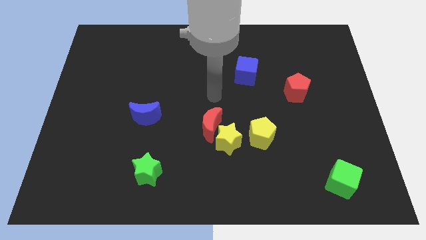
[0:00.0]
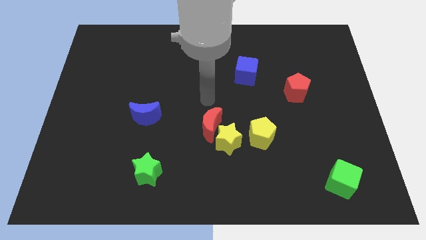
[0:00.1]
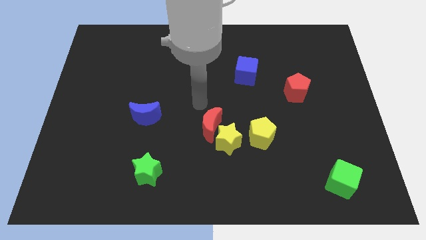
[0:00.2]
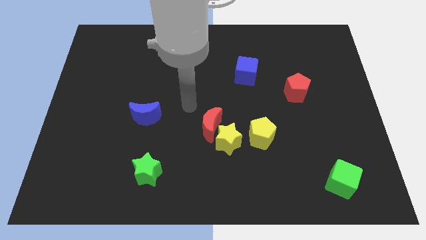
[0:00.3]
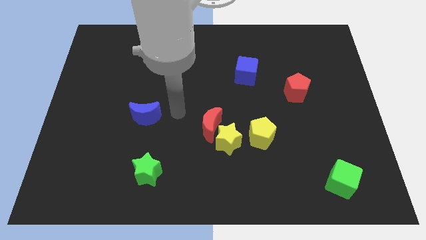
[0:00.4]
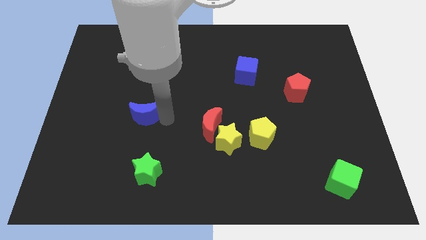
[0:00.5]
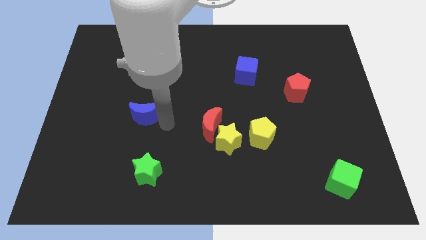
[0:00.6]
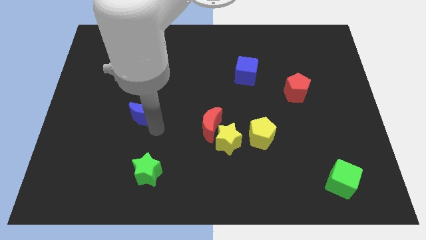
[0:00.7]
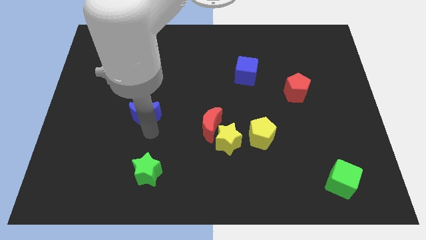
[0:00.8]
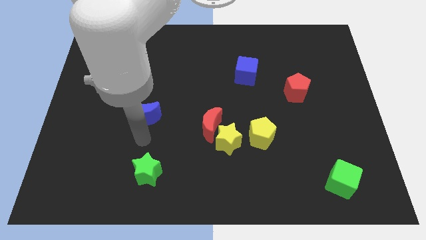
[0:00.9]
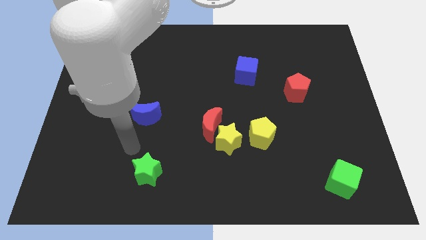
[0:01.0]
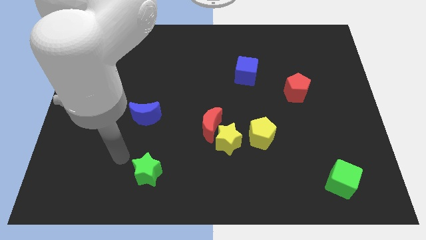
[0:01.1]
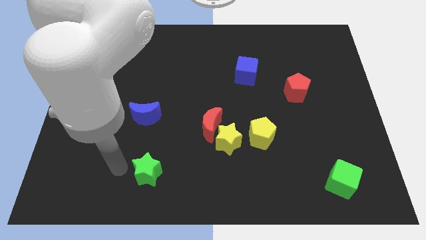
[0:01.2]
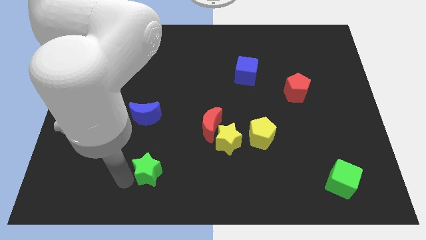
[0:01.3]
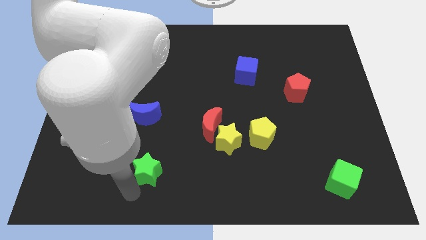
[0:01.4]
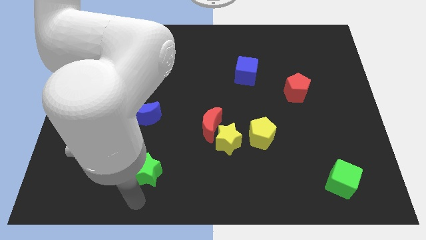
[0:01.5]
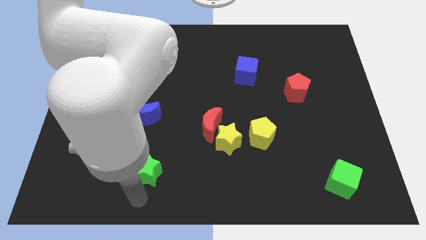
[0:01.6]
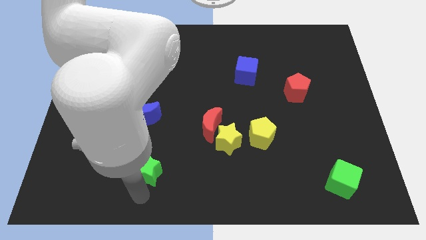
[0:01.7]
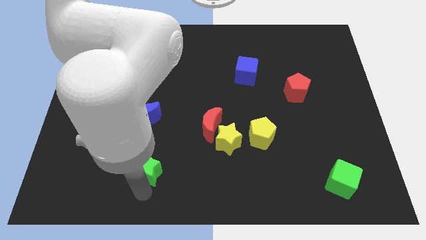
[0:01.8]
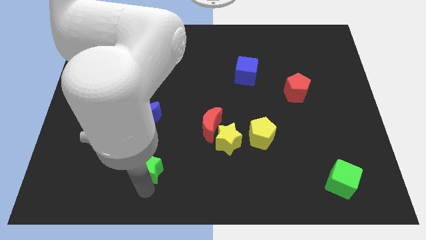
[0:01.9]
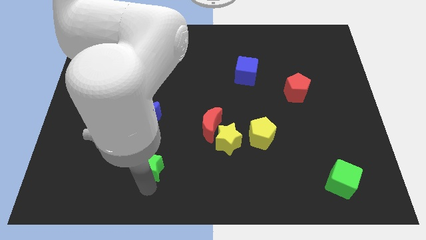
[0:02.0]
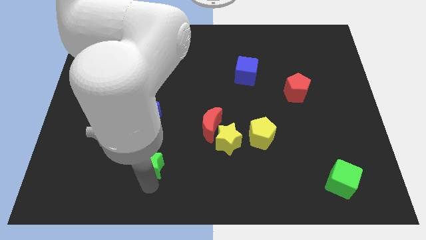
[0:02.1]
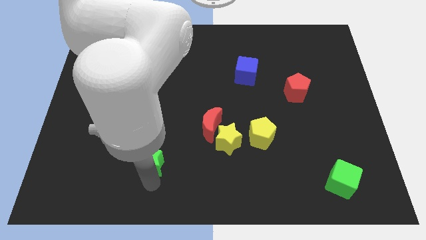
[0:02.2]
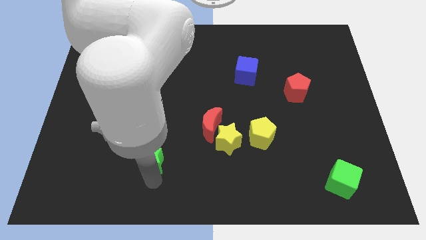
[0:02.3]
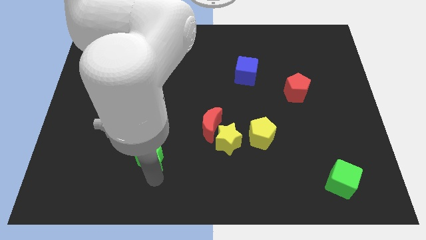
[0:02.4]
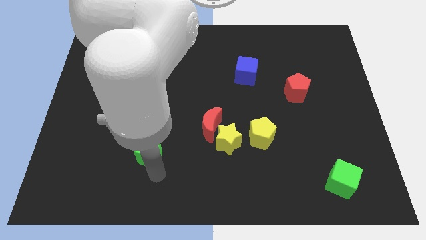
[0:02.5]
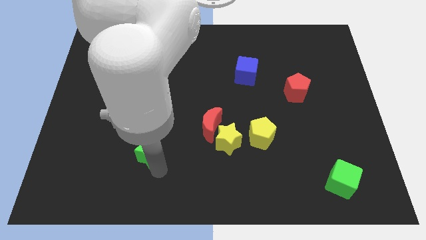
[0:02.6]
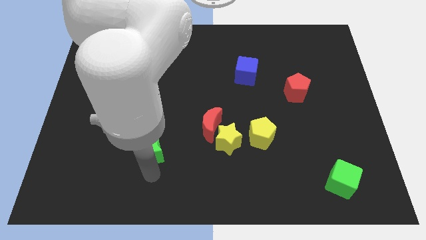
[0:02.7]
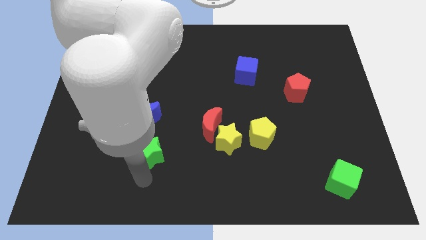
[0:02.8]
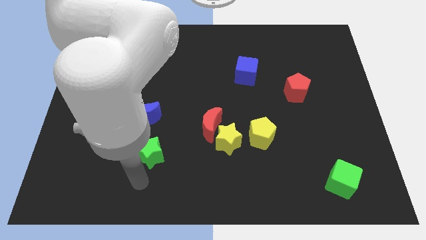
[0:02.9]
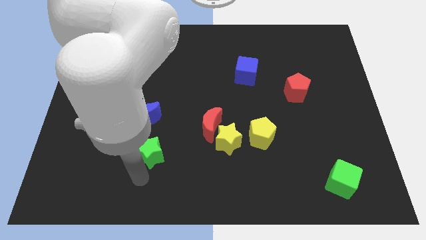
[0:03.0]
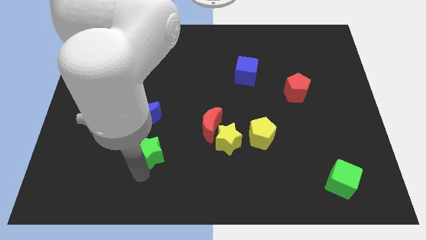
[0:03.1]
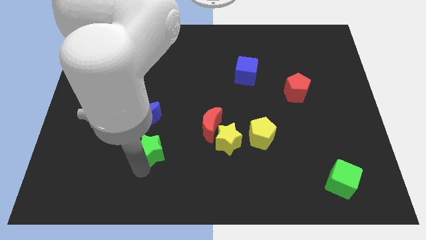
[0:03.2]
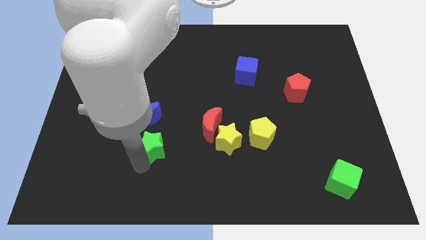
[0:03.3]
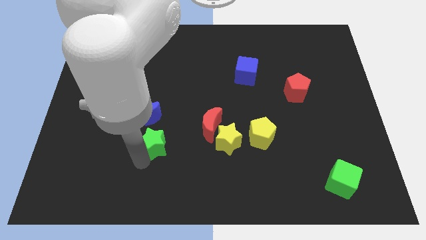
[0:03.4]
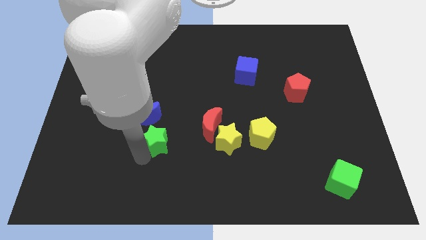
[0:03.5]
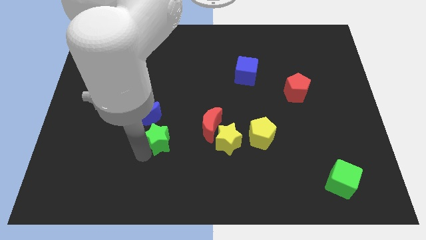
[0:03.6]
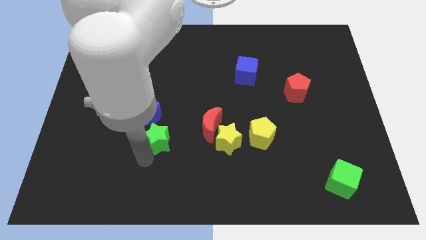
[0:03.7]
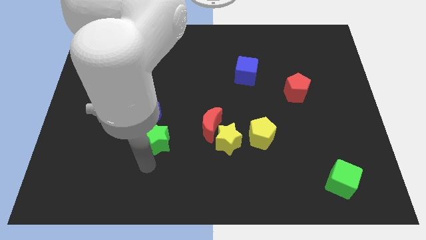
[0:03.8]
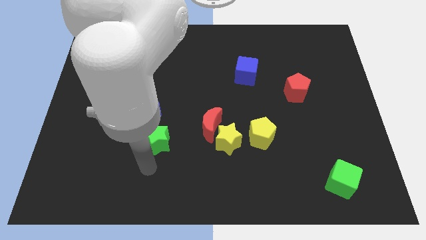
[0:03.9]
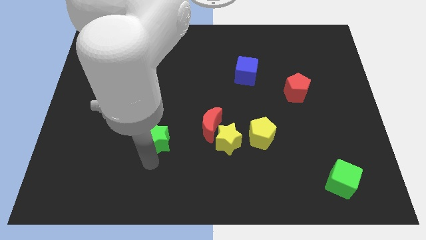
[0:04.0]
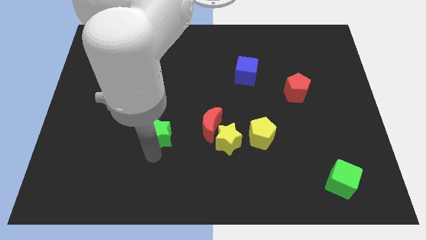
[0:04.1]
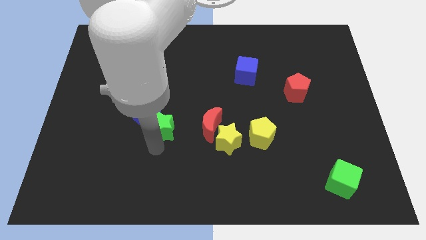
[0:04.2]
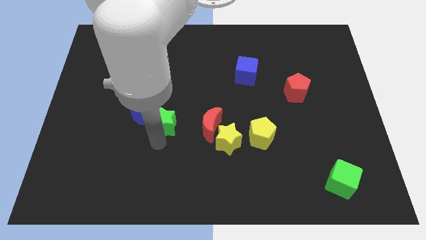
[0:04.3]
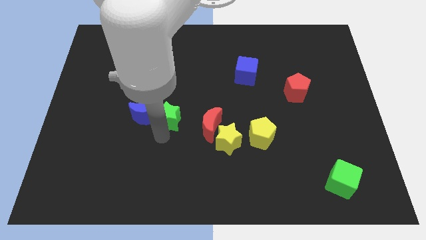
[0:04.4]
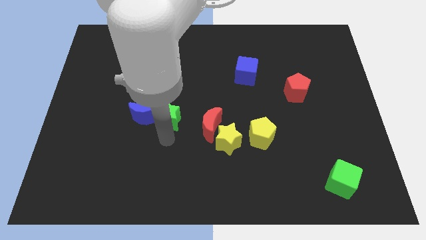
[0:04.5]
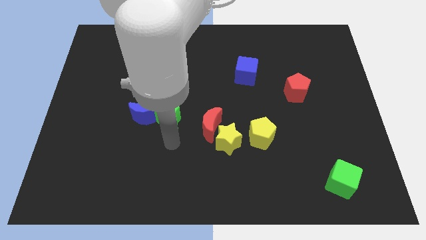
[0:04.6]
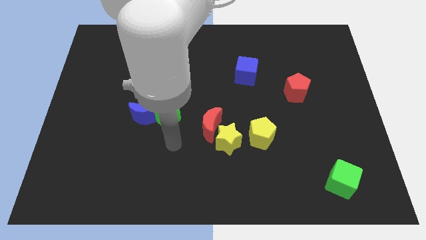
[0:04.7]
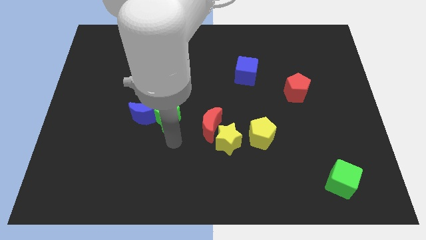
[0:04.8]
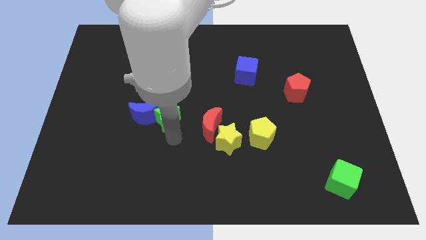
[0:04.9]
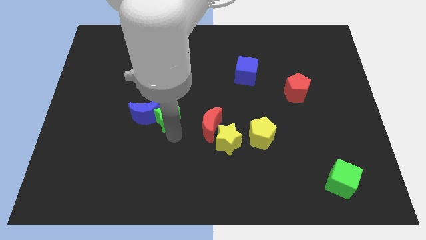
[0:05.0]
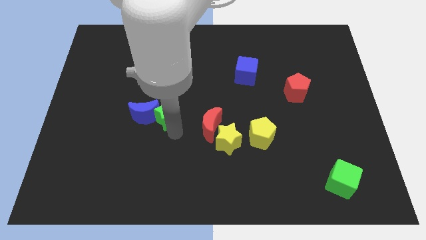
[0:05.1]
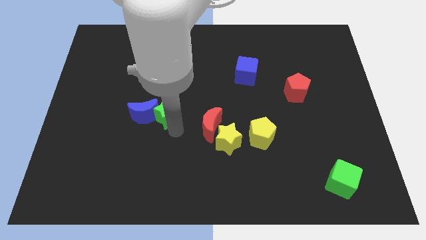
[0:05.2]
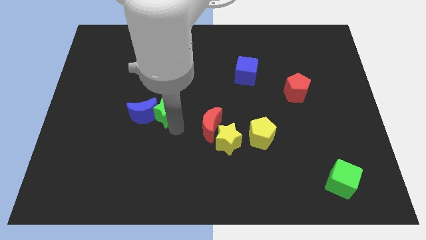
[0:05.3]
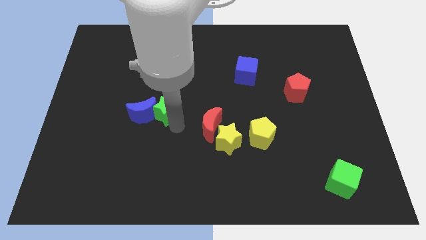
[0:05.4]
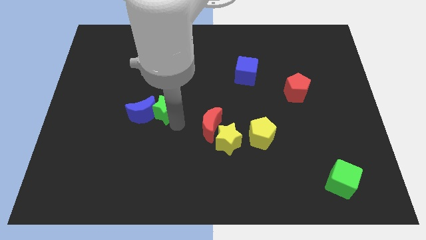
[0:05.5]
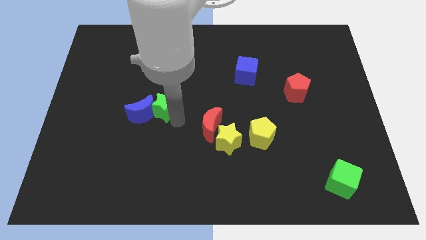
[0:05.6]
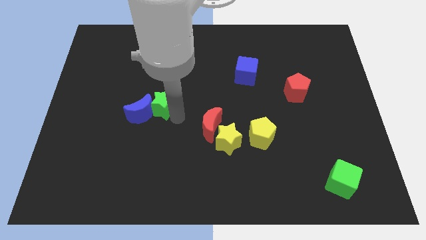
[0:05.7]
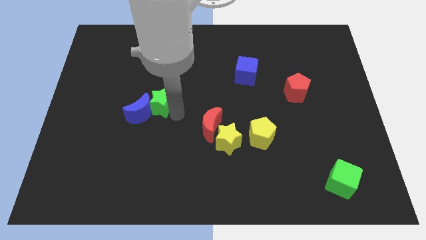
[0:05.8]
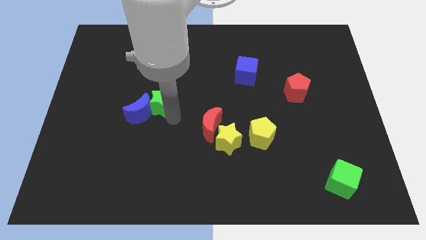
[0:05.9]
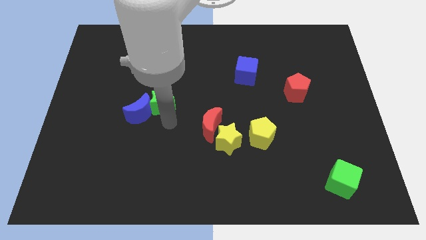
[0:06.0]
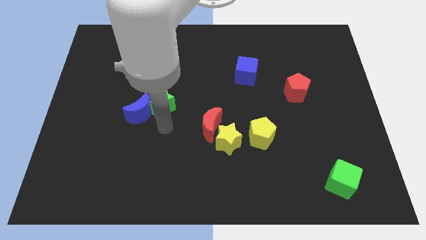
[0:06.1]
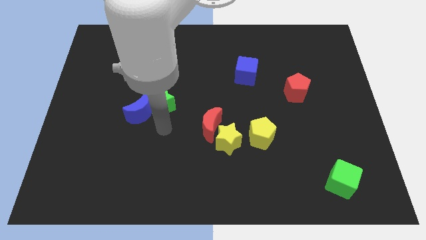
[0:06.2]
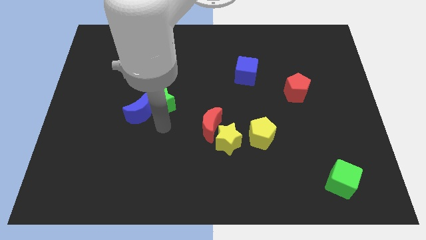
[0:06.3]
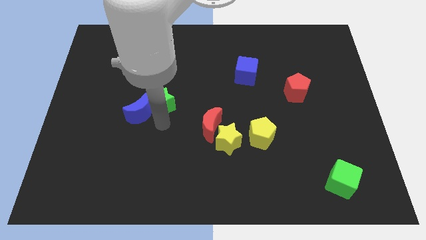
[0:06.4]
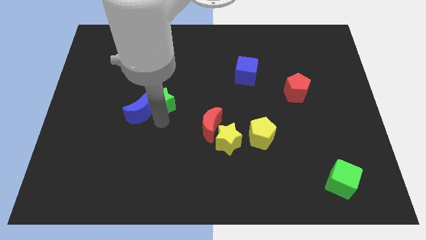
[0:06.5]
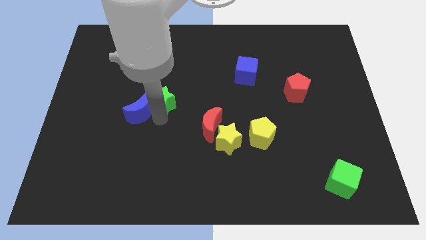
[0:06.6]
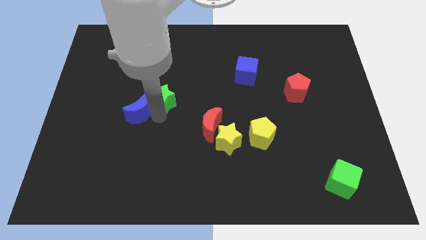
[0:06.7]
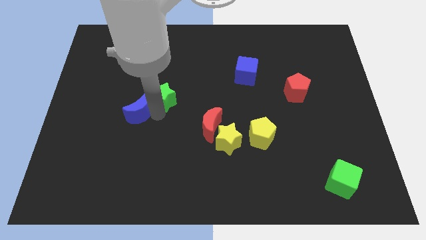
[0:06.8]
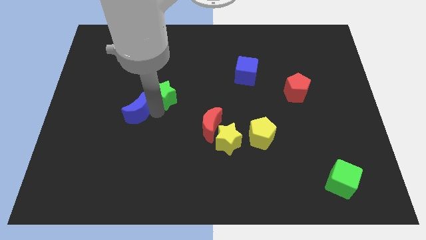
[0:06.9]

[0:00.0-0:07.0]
slide the green star up

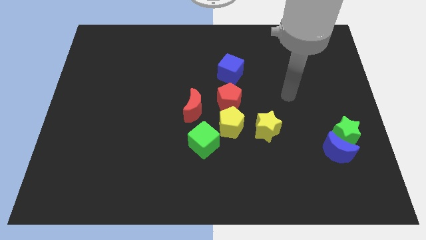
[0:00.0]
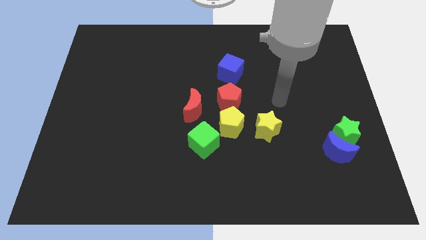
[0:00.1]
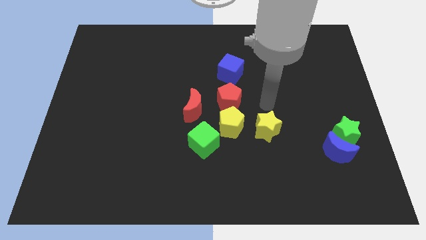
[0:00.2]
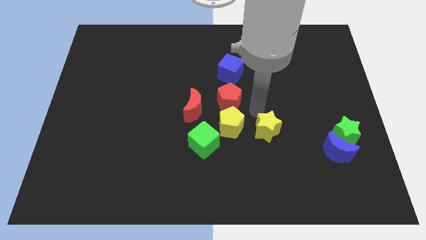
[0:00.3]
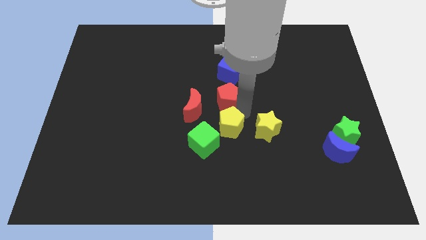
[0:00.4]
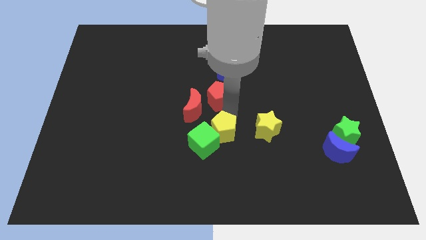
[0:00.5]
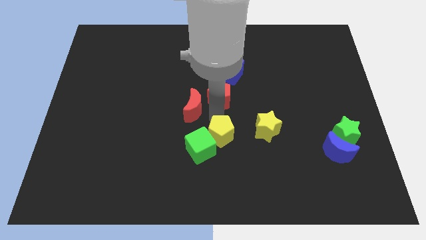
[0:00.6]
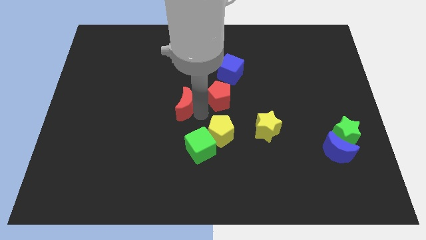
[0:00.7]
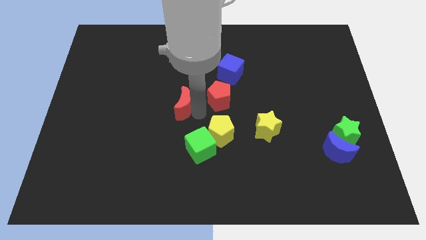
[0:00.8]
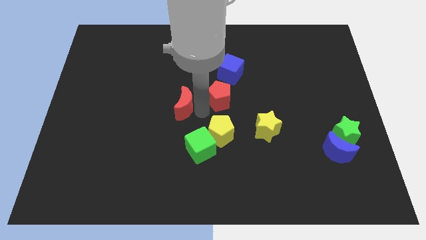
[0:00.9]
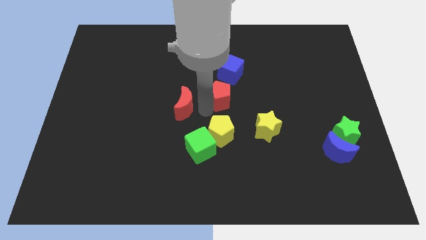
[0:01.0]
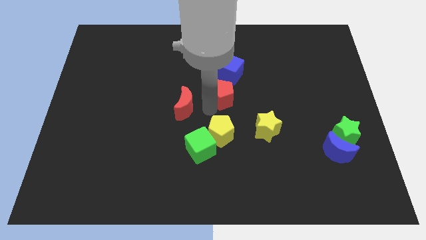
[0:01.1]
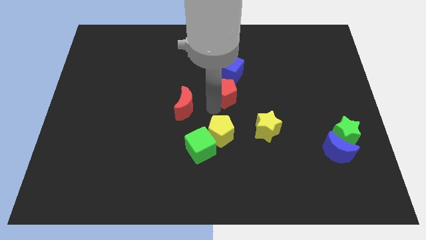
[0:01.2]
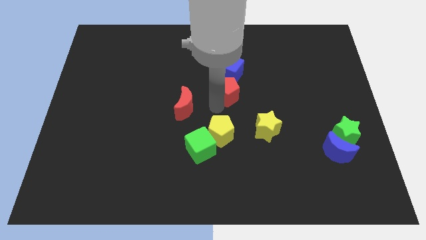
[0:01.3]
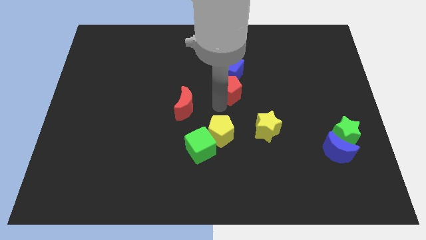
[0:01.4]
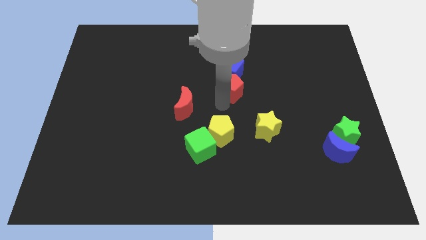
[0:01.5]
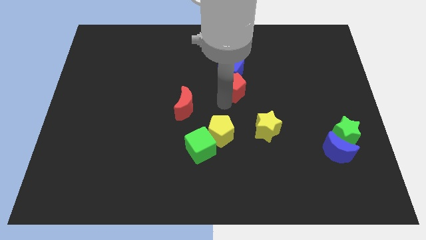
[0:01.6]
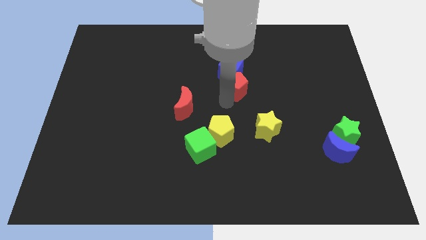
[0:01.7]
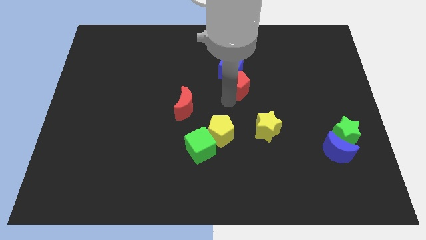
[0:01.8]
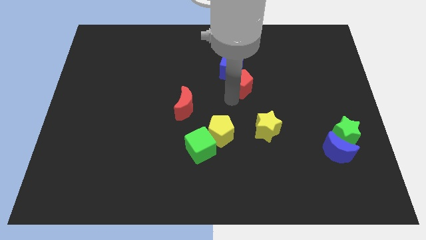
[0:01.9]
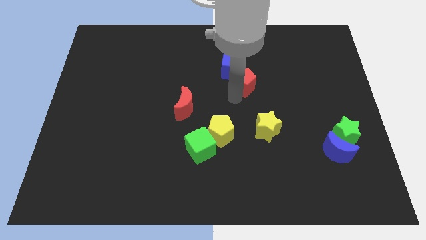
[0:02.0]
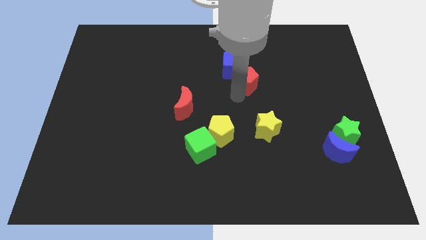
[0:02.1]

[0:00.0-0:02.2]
push the red pentagon diagonally up and to the right a little
